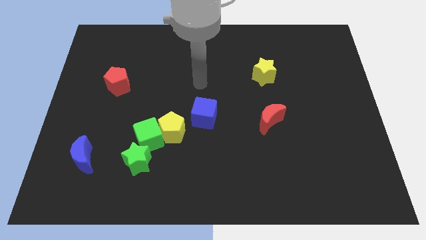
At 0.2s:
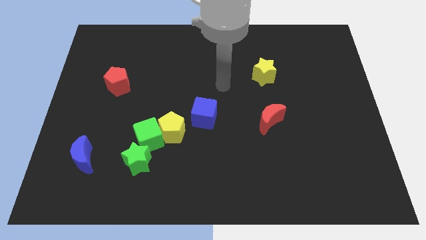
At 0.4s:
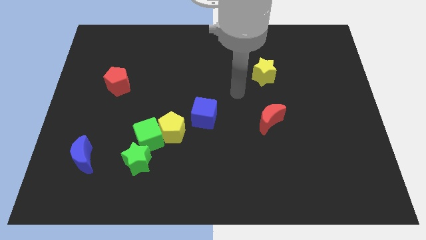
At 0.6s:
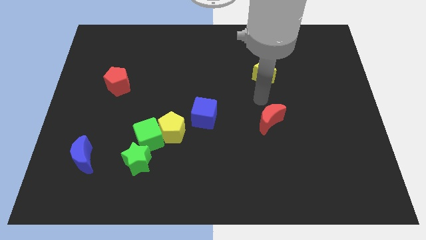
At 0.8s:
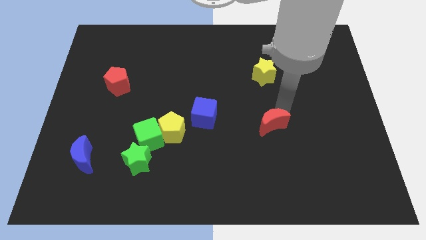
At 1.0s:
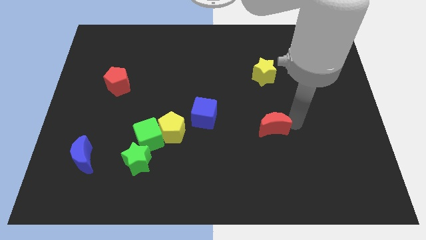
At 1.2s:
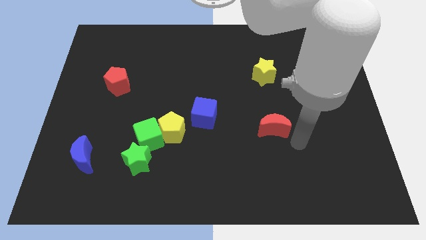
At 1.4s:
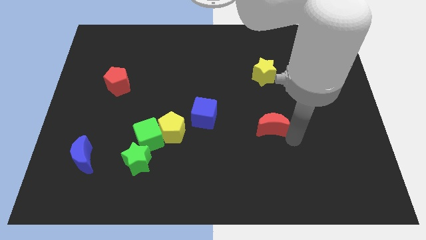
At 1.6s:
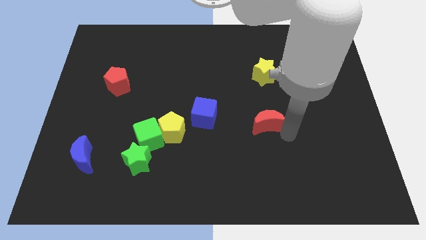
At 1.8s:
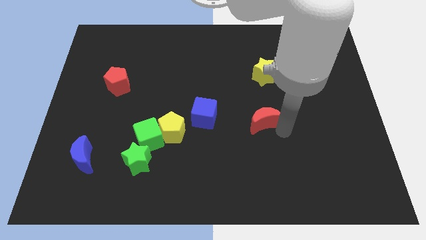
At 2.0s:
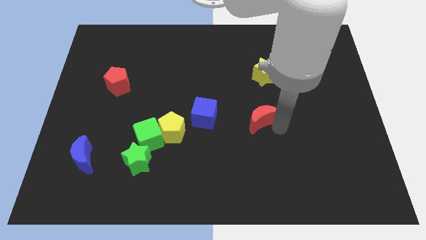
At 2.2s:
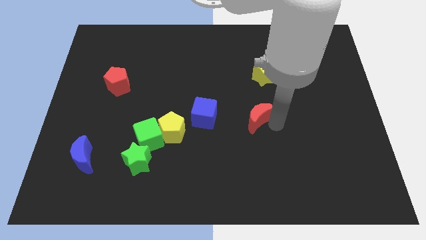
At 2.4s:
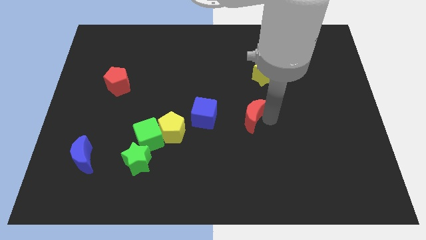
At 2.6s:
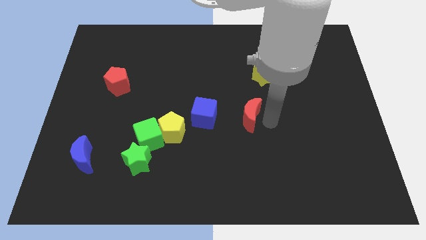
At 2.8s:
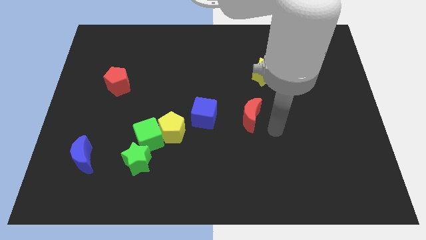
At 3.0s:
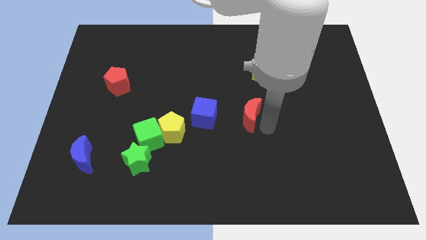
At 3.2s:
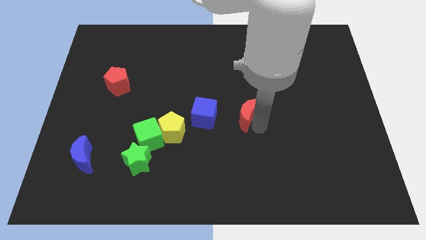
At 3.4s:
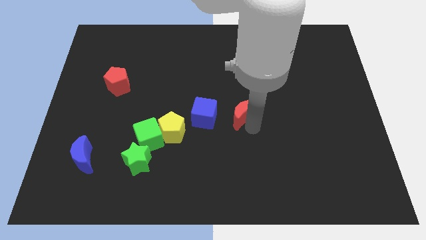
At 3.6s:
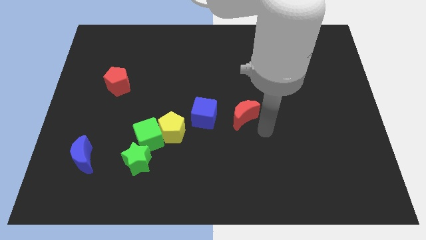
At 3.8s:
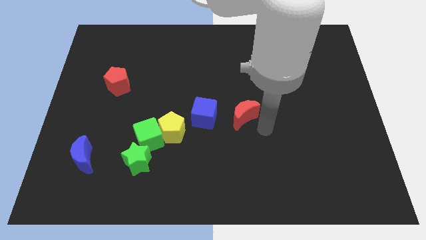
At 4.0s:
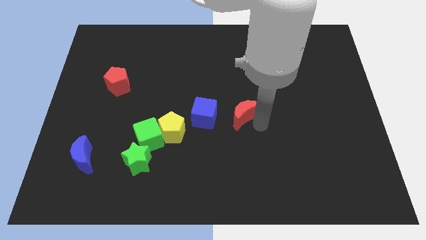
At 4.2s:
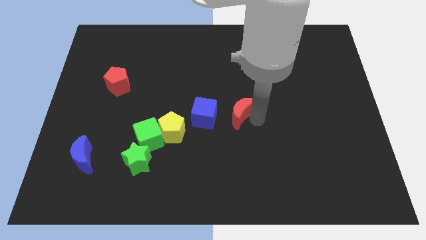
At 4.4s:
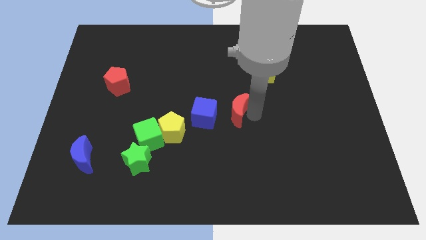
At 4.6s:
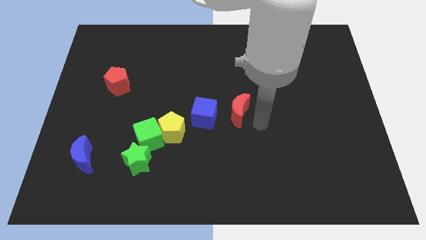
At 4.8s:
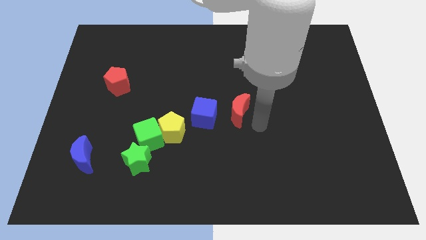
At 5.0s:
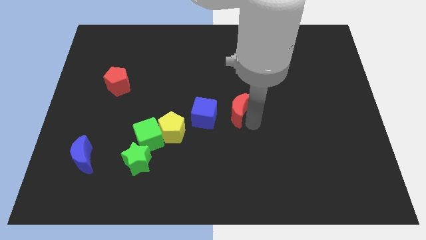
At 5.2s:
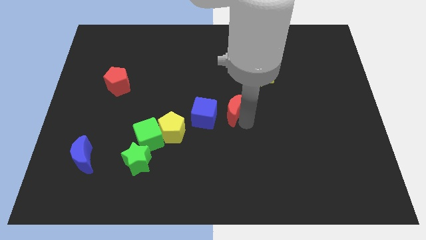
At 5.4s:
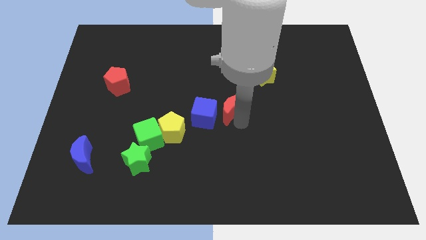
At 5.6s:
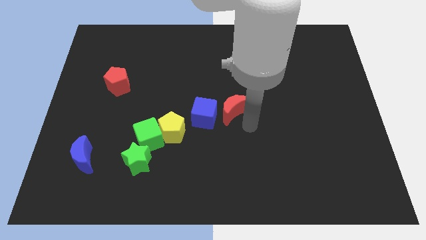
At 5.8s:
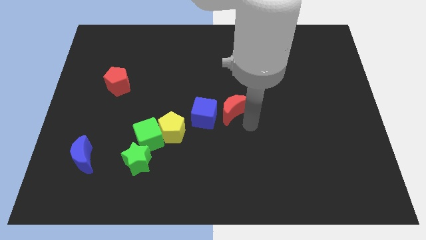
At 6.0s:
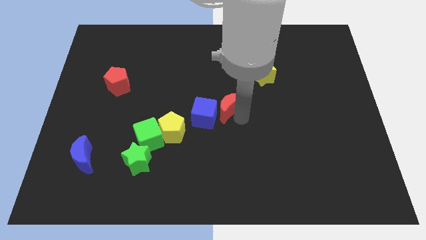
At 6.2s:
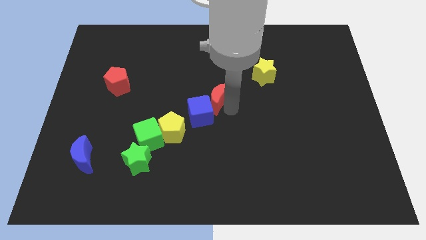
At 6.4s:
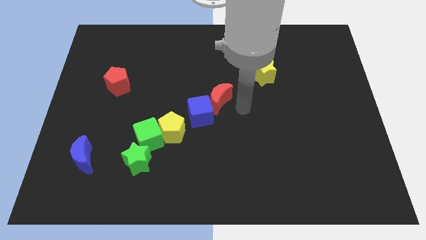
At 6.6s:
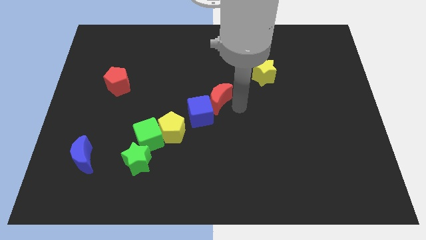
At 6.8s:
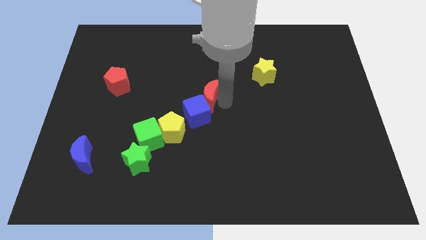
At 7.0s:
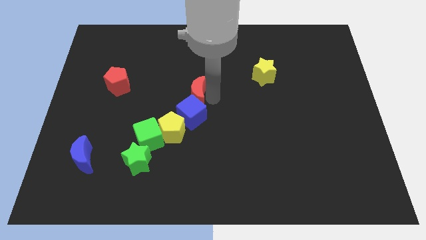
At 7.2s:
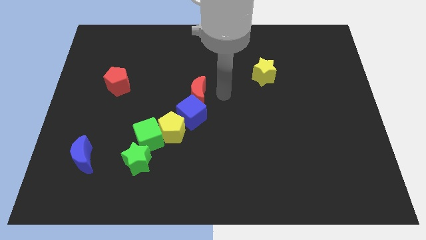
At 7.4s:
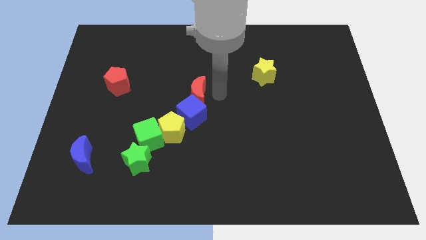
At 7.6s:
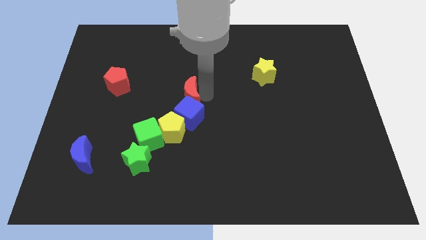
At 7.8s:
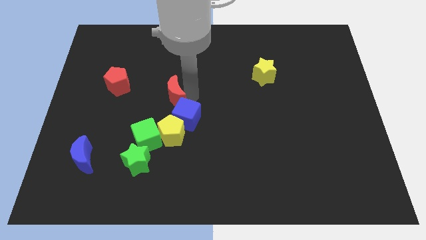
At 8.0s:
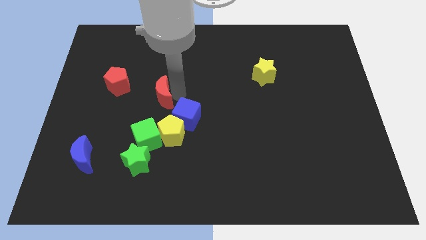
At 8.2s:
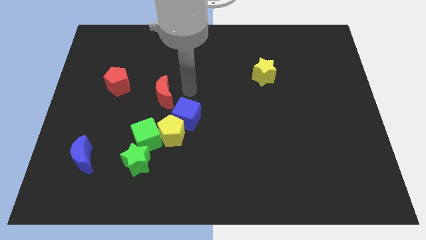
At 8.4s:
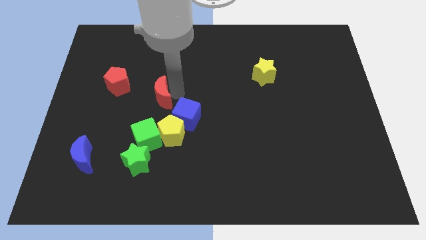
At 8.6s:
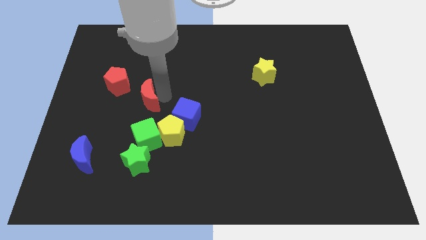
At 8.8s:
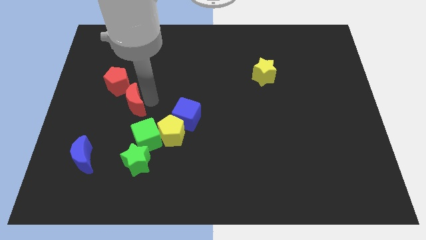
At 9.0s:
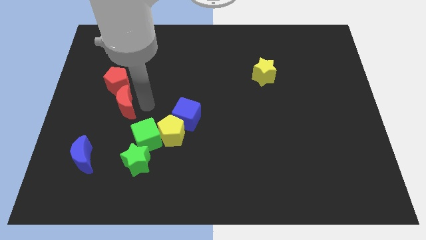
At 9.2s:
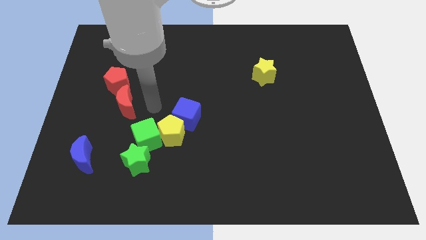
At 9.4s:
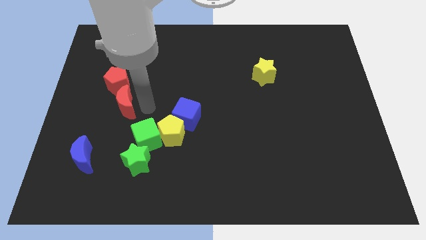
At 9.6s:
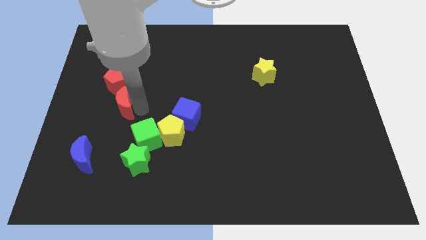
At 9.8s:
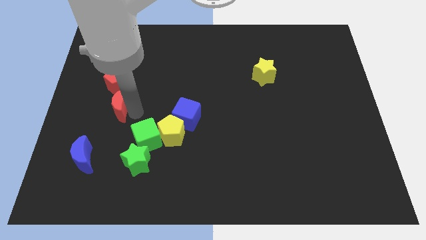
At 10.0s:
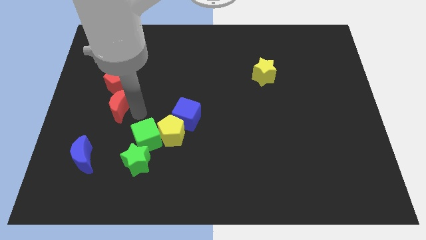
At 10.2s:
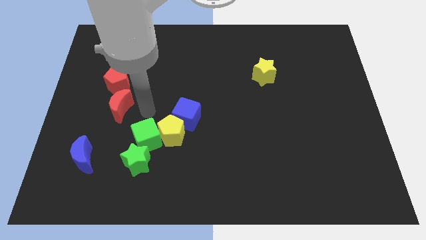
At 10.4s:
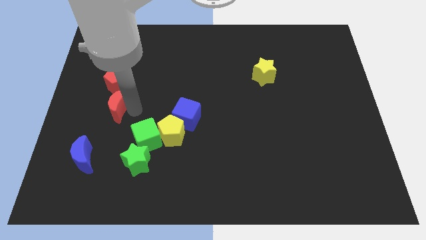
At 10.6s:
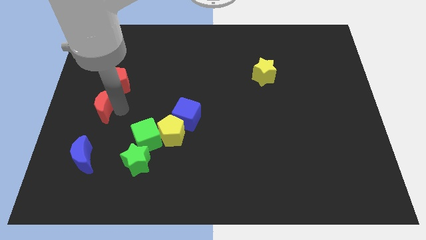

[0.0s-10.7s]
push the red moon to the center left

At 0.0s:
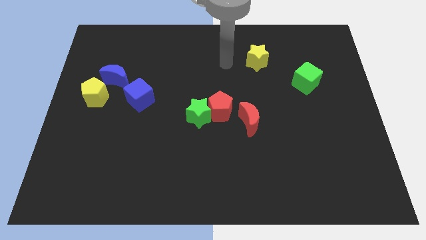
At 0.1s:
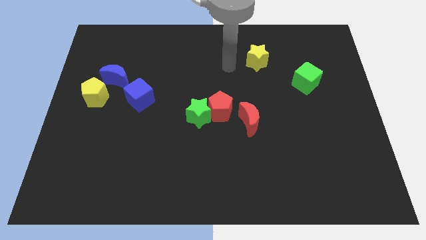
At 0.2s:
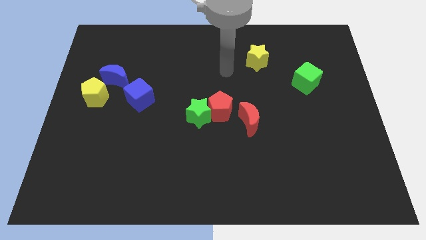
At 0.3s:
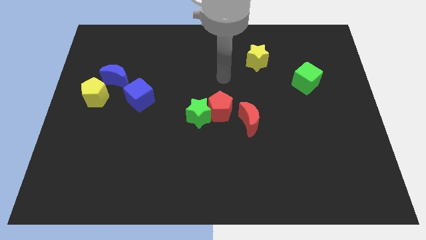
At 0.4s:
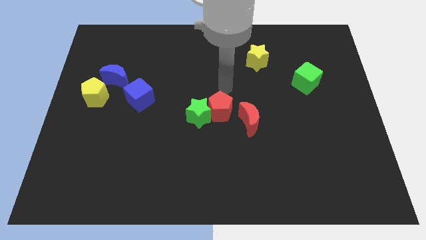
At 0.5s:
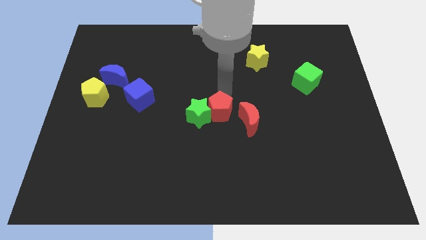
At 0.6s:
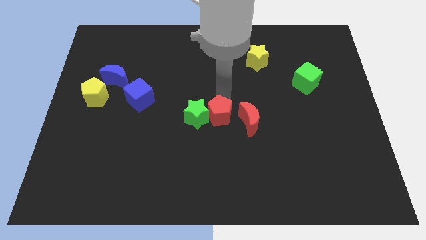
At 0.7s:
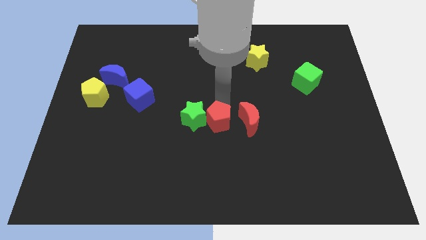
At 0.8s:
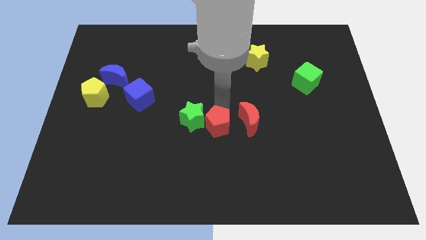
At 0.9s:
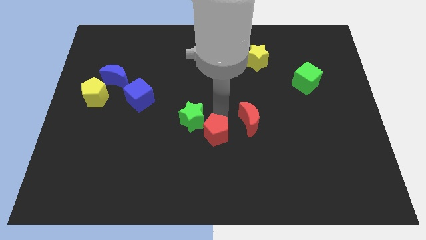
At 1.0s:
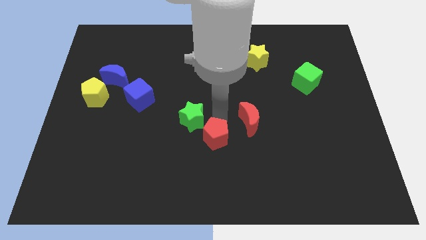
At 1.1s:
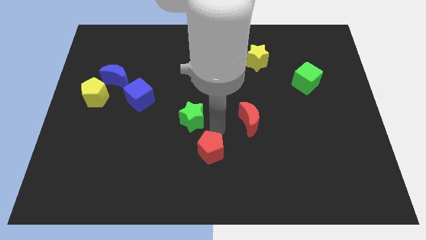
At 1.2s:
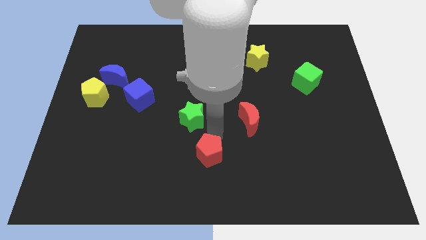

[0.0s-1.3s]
slide the red pentagon to the bottom

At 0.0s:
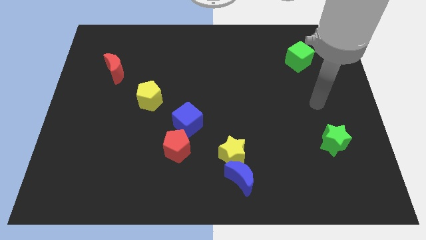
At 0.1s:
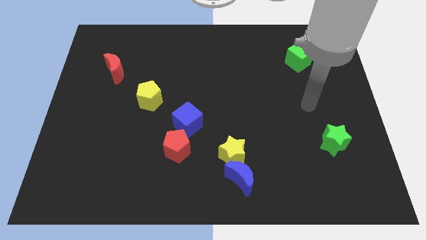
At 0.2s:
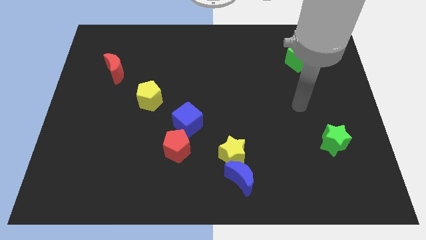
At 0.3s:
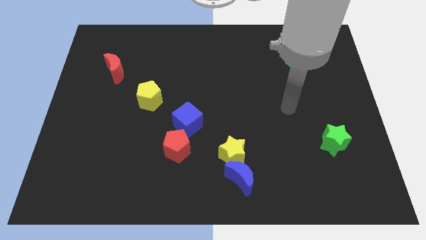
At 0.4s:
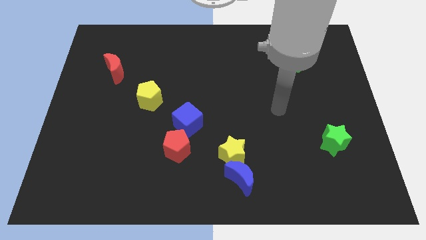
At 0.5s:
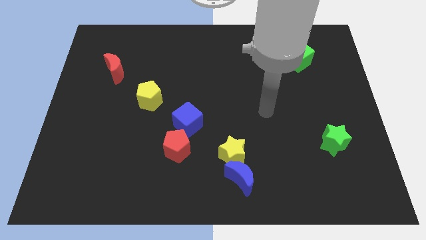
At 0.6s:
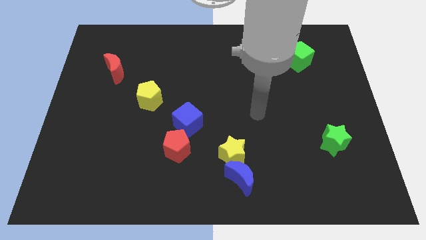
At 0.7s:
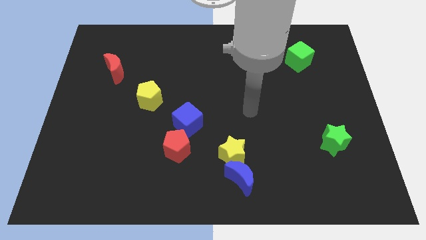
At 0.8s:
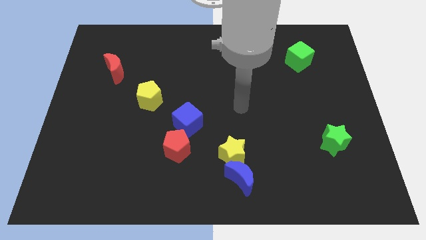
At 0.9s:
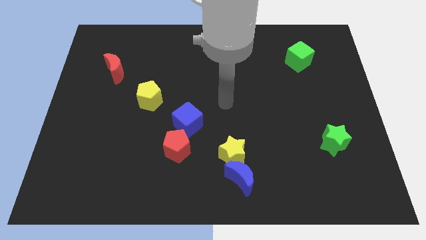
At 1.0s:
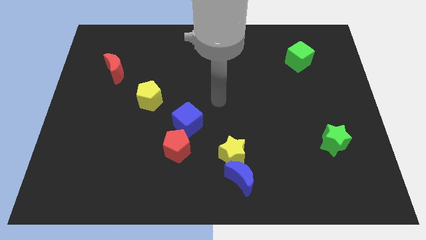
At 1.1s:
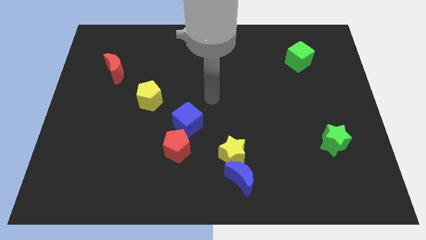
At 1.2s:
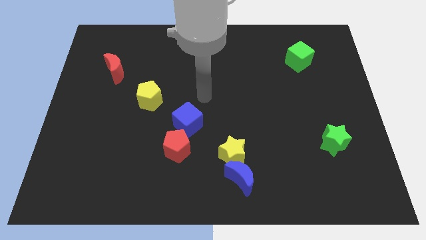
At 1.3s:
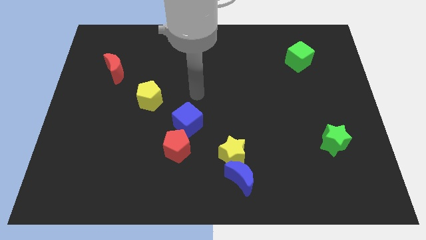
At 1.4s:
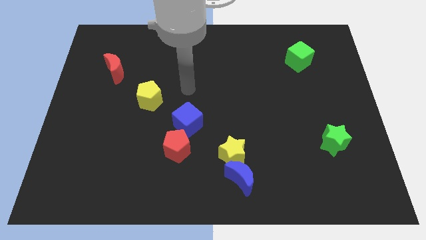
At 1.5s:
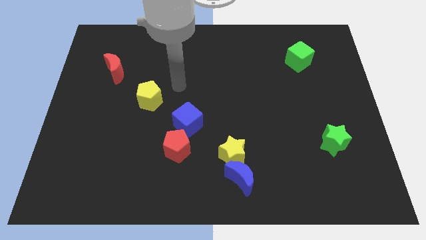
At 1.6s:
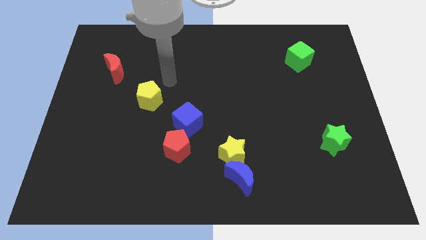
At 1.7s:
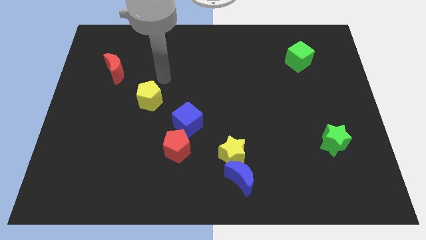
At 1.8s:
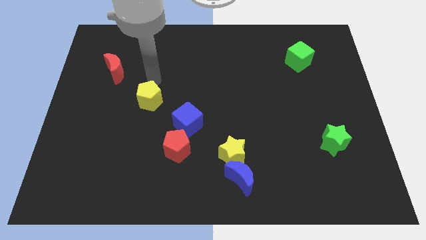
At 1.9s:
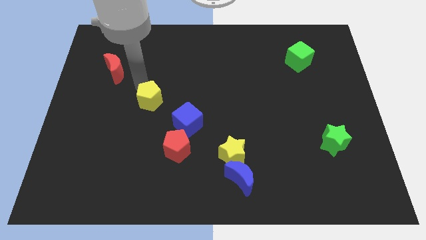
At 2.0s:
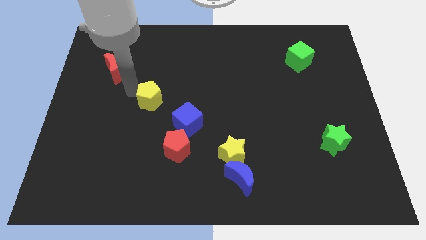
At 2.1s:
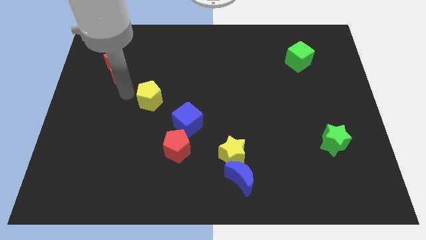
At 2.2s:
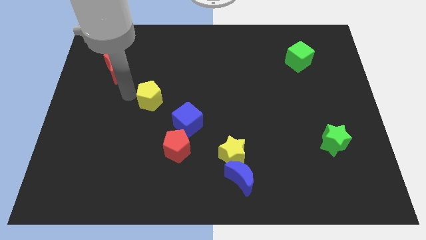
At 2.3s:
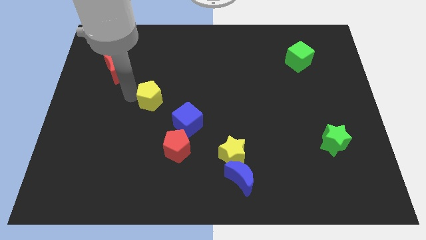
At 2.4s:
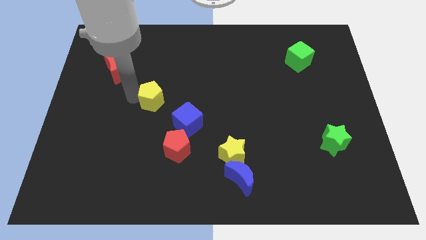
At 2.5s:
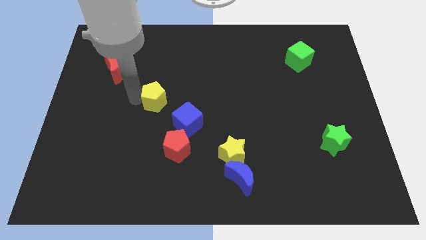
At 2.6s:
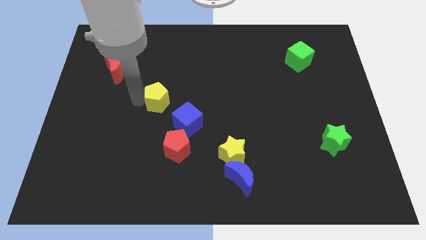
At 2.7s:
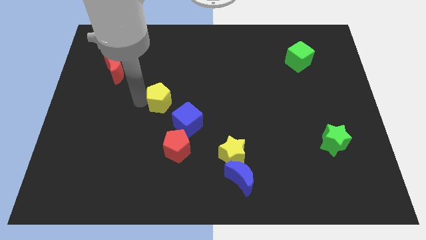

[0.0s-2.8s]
move the yellow pentagon to the middle
